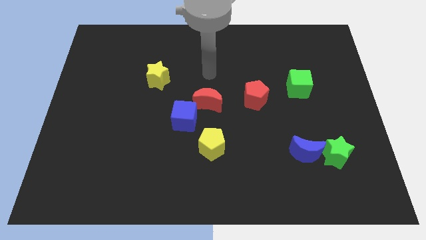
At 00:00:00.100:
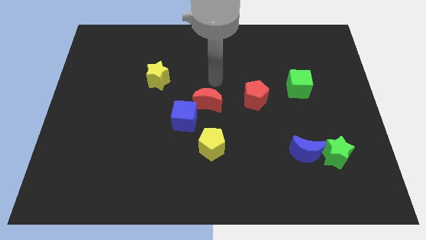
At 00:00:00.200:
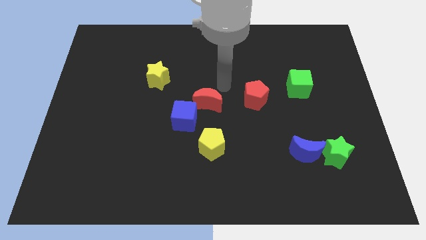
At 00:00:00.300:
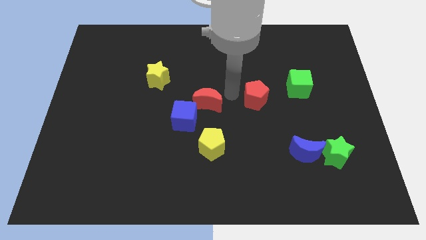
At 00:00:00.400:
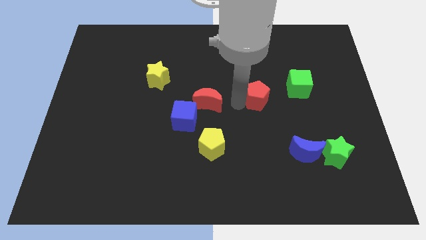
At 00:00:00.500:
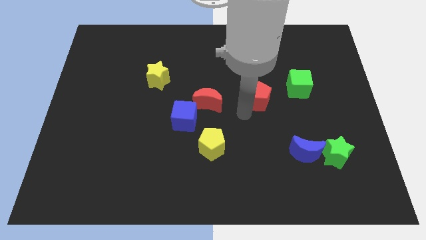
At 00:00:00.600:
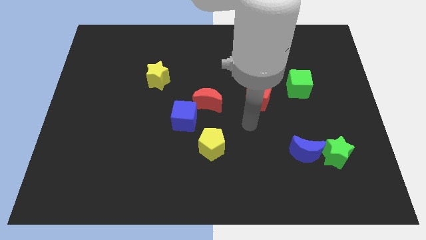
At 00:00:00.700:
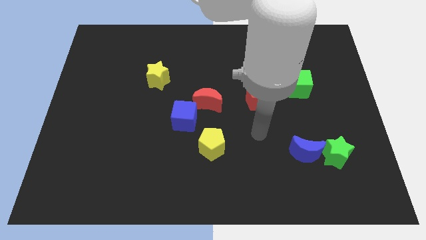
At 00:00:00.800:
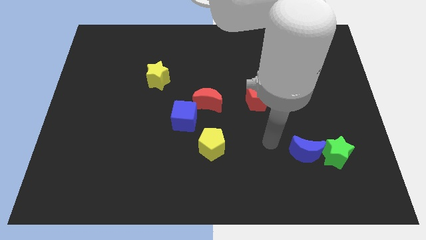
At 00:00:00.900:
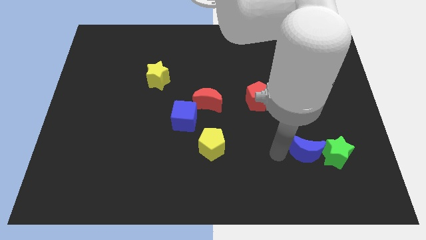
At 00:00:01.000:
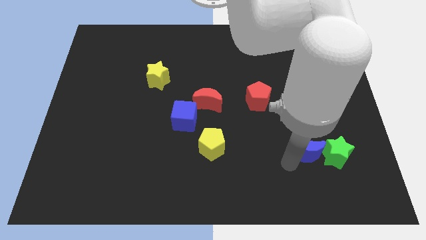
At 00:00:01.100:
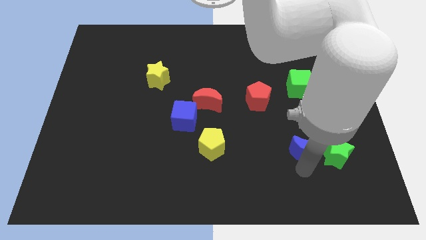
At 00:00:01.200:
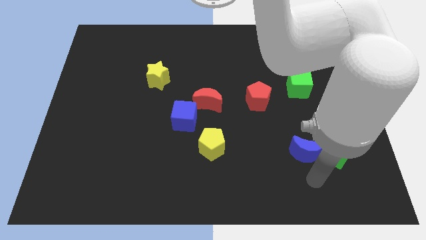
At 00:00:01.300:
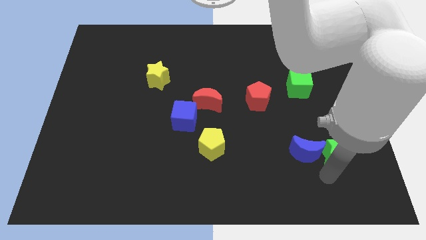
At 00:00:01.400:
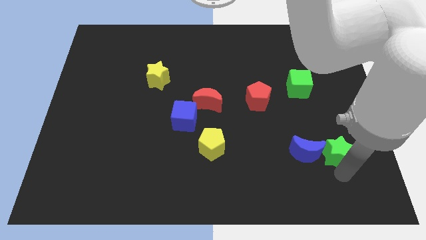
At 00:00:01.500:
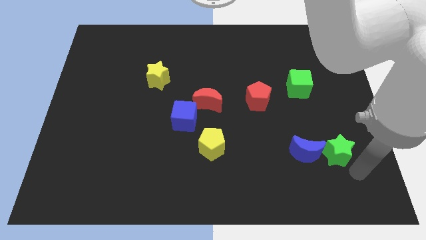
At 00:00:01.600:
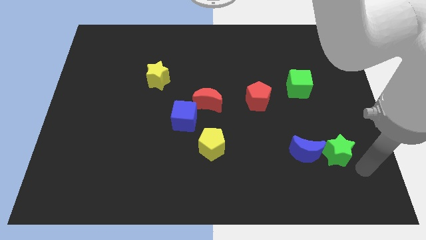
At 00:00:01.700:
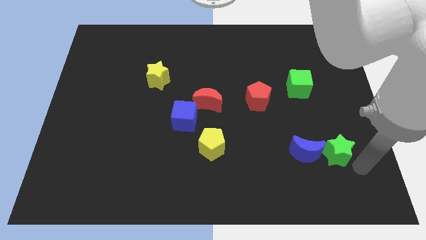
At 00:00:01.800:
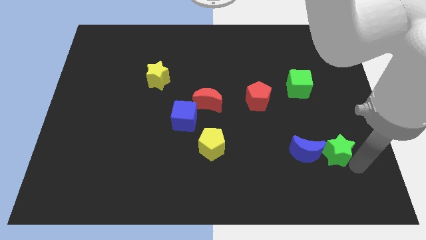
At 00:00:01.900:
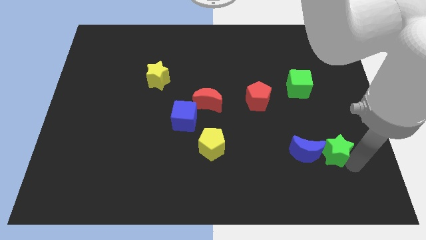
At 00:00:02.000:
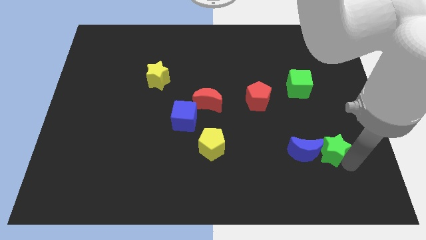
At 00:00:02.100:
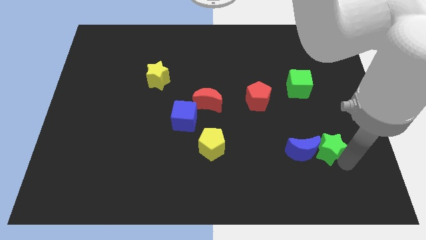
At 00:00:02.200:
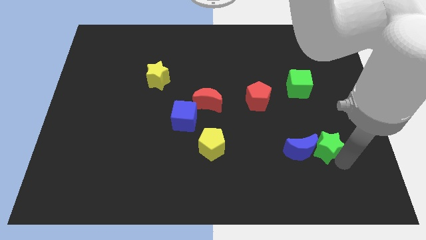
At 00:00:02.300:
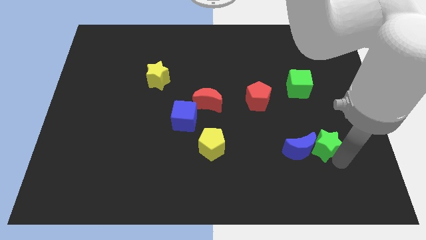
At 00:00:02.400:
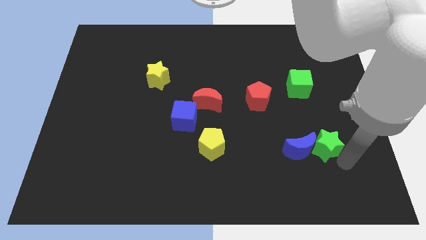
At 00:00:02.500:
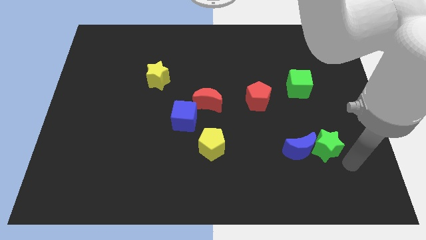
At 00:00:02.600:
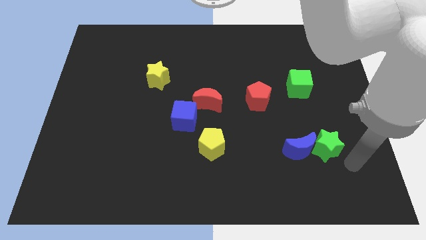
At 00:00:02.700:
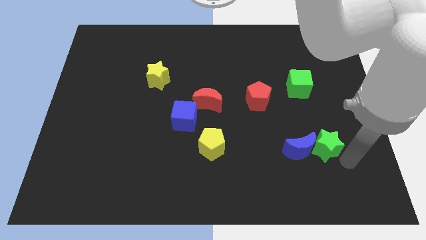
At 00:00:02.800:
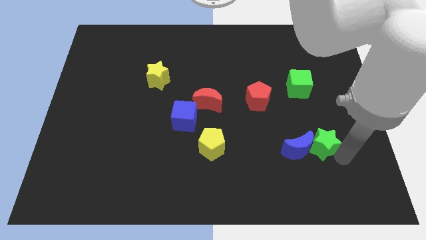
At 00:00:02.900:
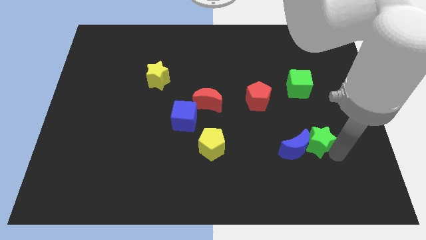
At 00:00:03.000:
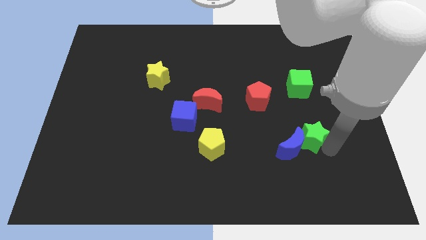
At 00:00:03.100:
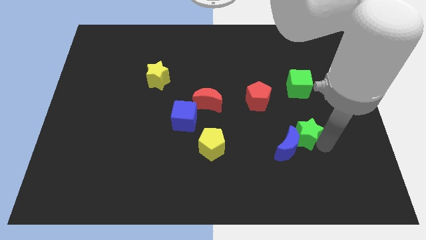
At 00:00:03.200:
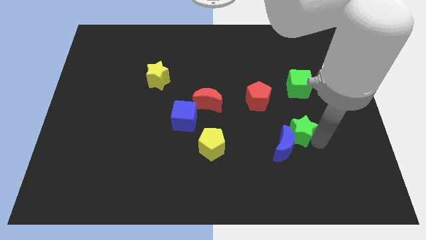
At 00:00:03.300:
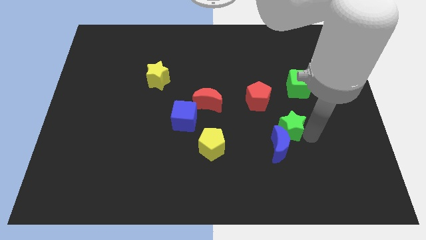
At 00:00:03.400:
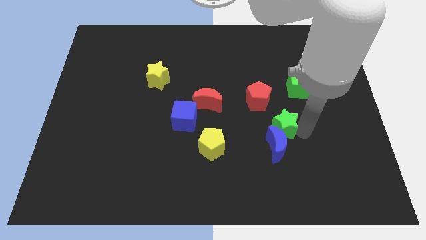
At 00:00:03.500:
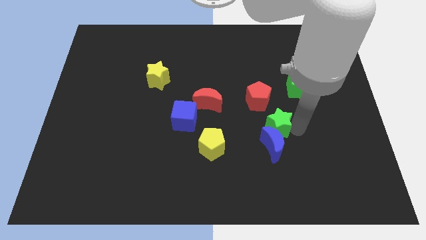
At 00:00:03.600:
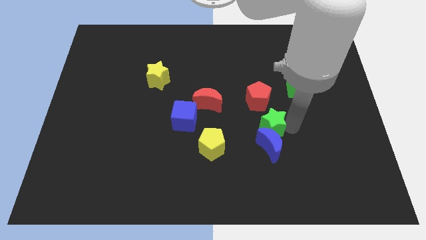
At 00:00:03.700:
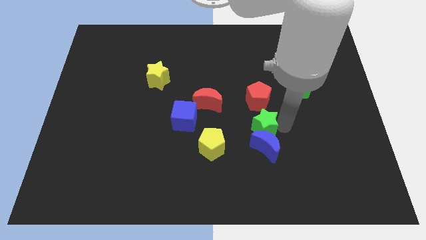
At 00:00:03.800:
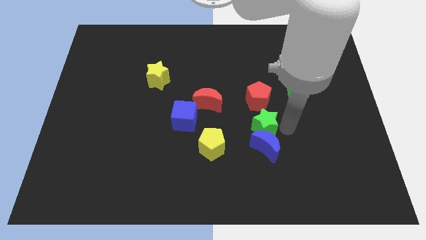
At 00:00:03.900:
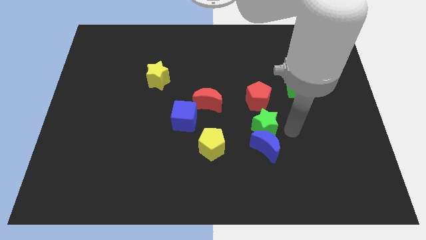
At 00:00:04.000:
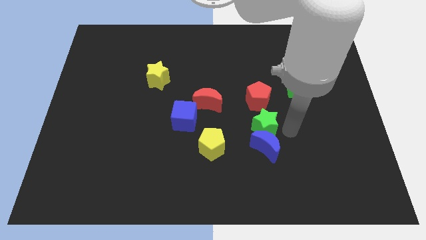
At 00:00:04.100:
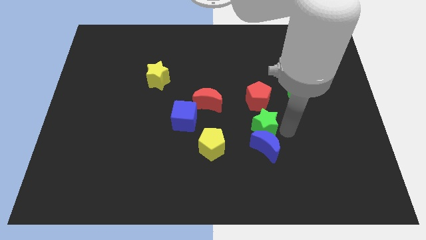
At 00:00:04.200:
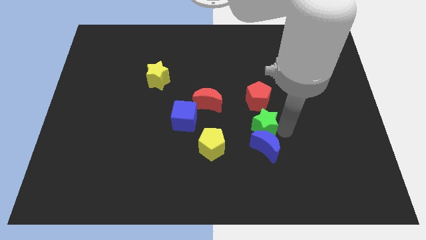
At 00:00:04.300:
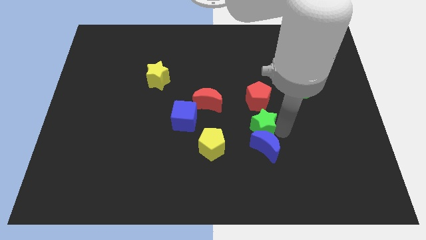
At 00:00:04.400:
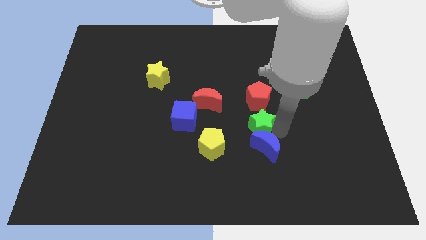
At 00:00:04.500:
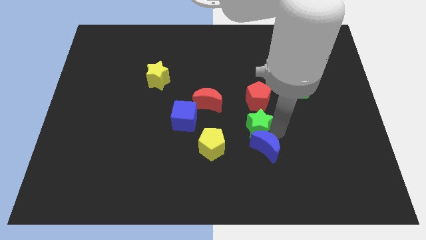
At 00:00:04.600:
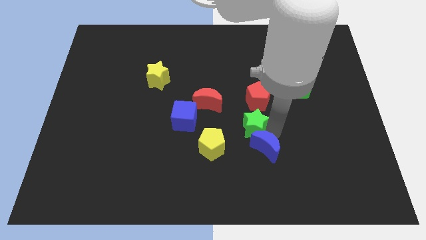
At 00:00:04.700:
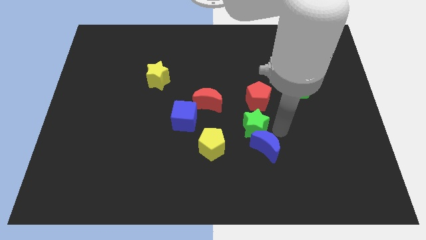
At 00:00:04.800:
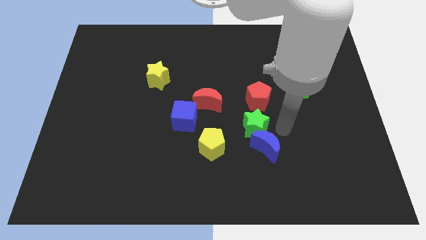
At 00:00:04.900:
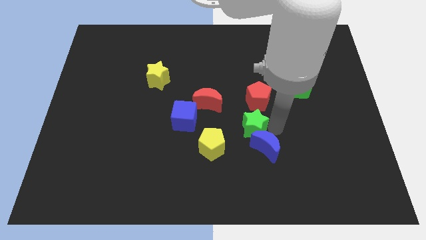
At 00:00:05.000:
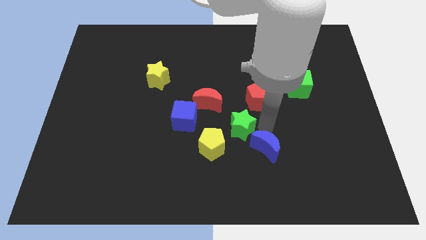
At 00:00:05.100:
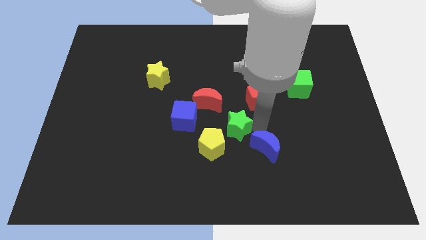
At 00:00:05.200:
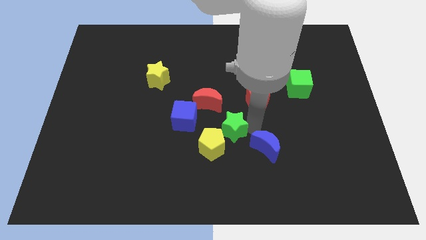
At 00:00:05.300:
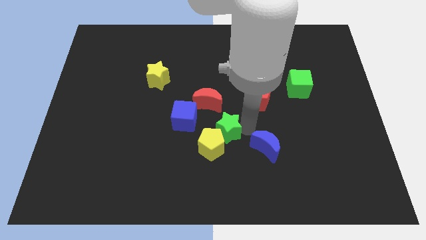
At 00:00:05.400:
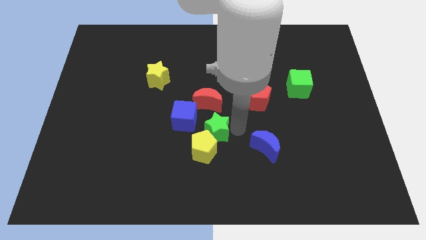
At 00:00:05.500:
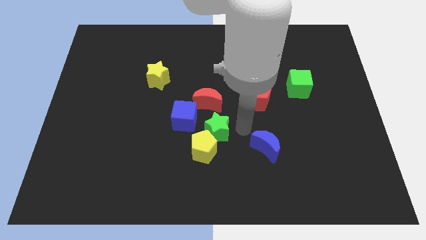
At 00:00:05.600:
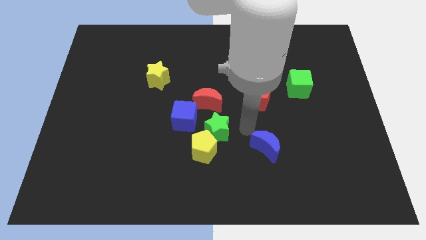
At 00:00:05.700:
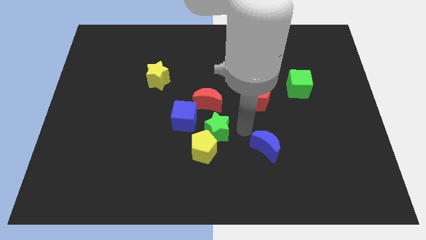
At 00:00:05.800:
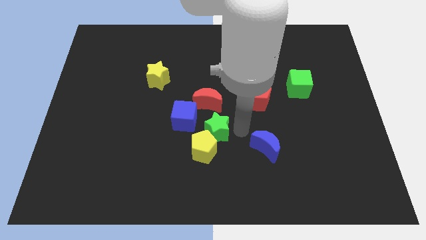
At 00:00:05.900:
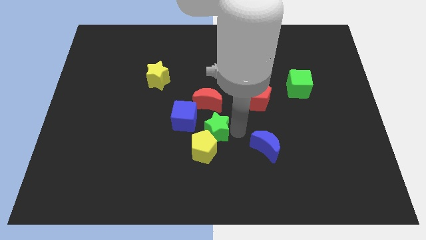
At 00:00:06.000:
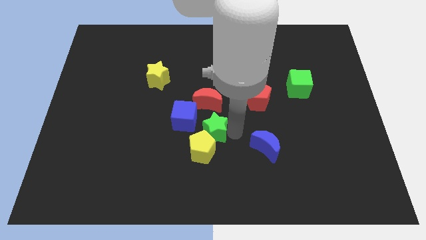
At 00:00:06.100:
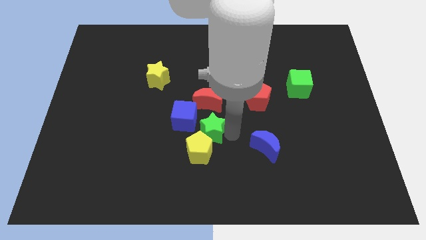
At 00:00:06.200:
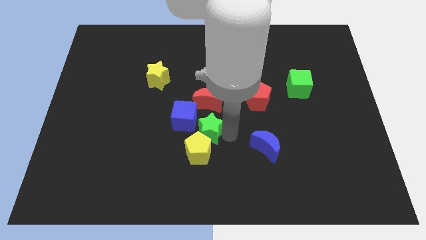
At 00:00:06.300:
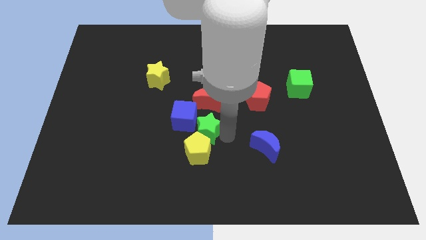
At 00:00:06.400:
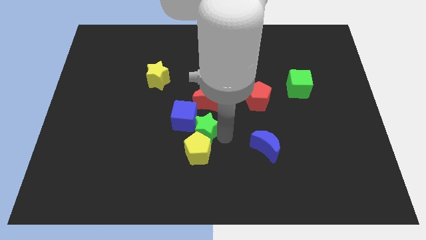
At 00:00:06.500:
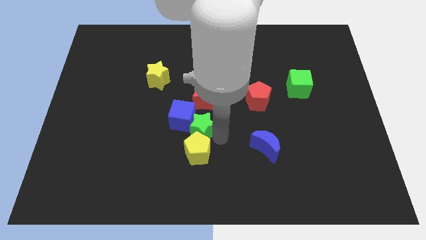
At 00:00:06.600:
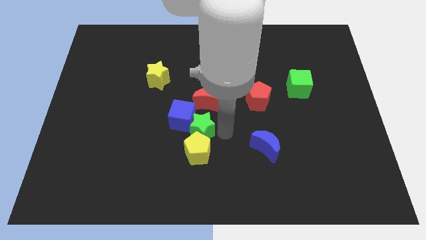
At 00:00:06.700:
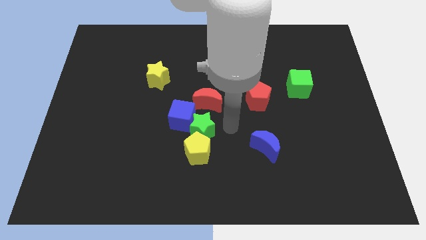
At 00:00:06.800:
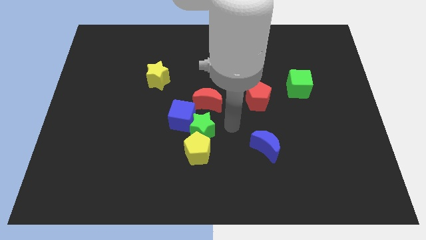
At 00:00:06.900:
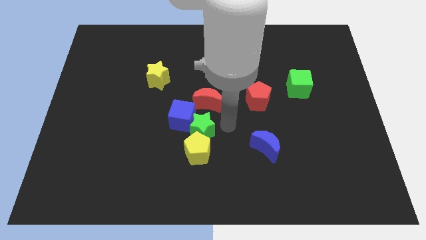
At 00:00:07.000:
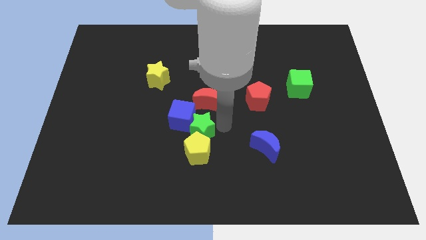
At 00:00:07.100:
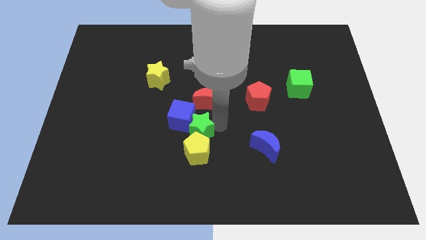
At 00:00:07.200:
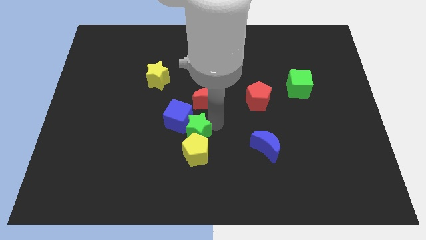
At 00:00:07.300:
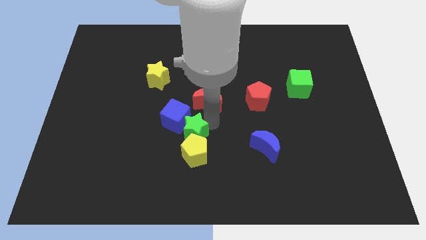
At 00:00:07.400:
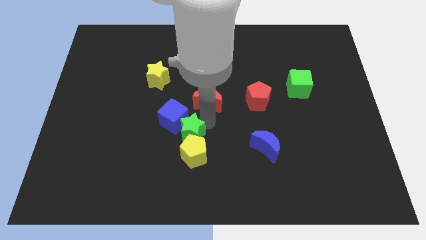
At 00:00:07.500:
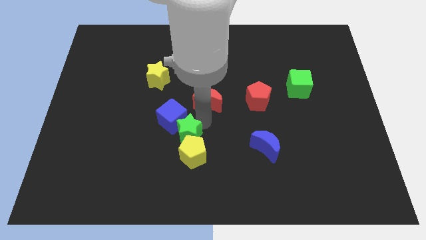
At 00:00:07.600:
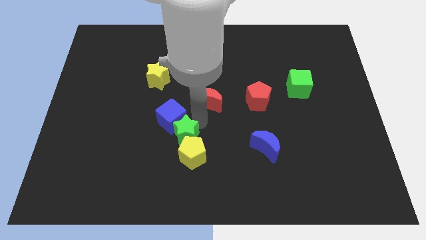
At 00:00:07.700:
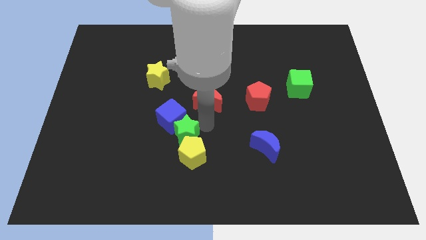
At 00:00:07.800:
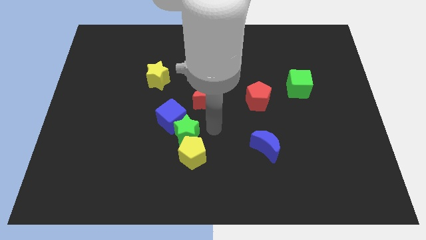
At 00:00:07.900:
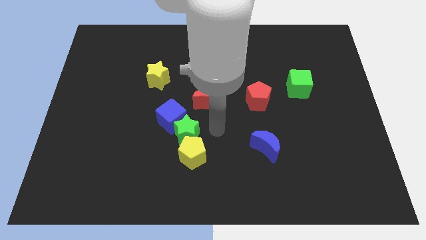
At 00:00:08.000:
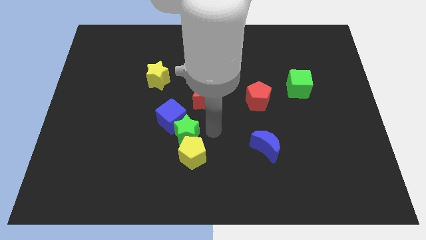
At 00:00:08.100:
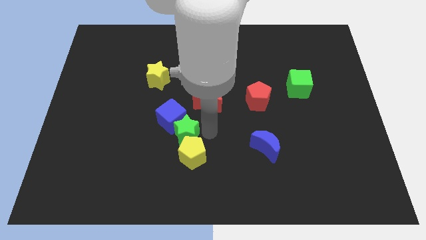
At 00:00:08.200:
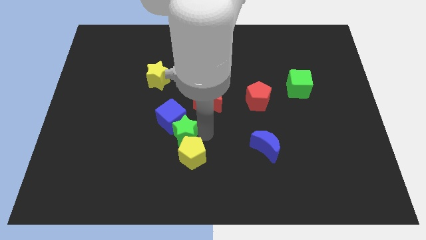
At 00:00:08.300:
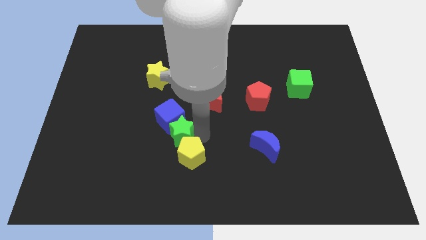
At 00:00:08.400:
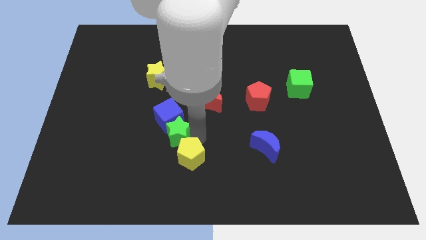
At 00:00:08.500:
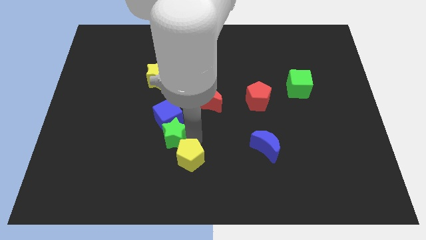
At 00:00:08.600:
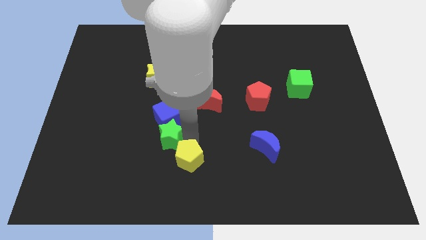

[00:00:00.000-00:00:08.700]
push the green star to the bottom left side of the blue cube
